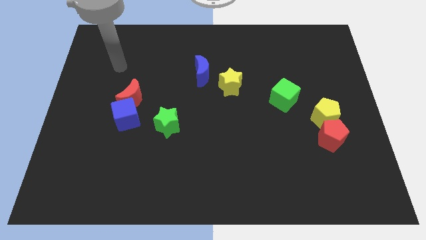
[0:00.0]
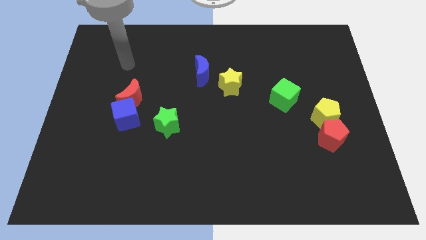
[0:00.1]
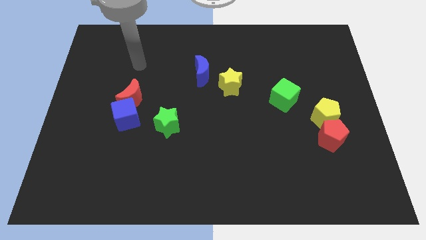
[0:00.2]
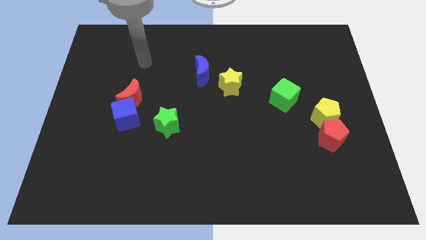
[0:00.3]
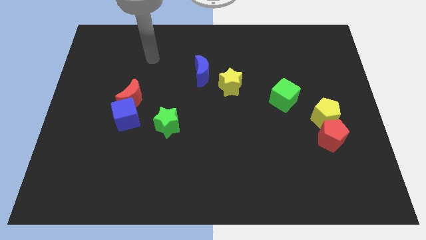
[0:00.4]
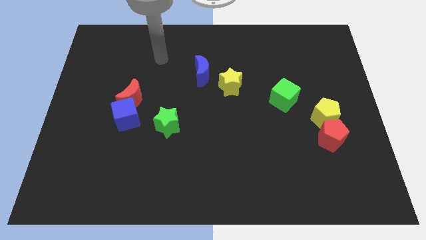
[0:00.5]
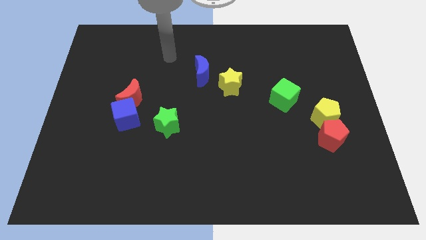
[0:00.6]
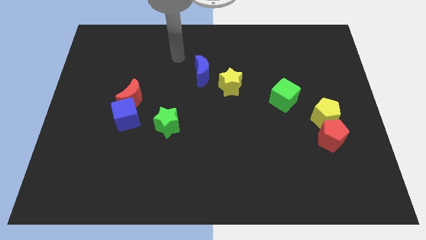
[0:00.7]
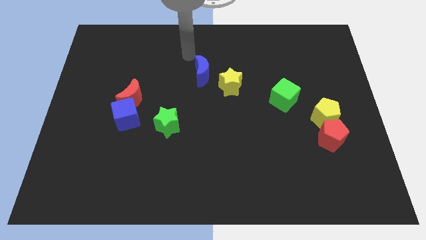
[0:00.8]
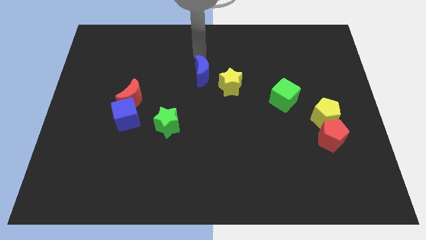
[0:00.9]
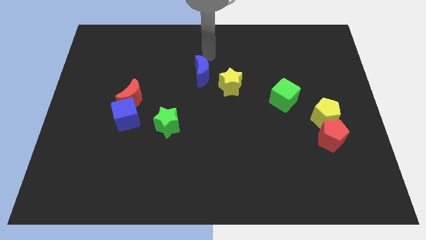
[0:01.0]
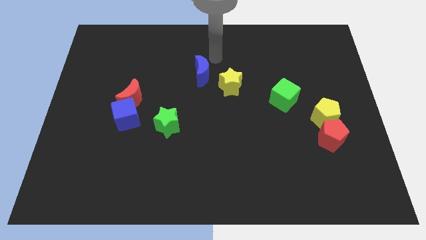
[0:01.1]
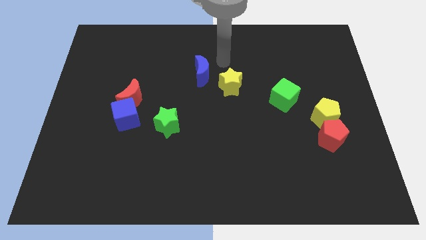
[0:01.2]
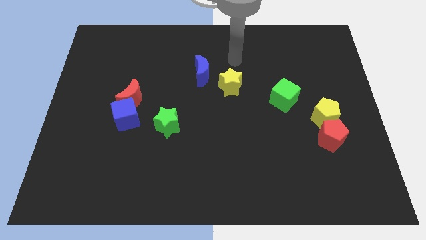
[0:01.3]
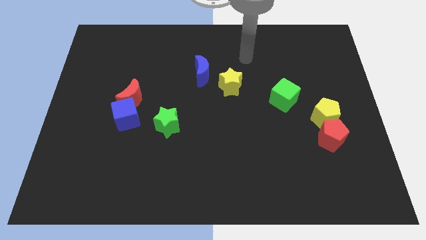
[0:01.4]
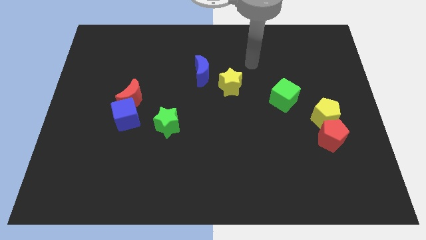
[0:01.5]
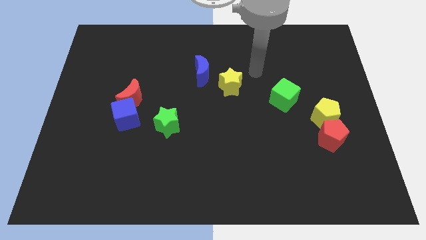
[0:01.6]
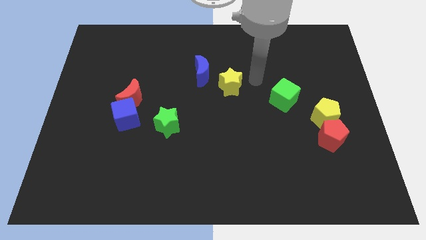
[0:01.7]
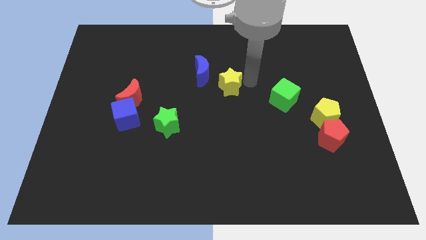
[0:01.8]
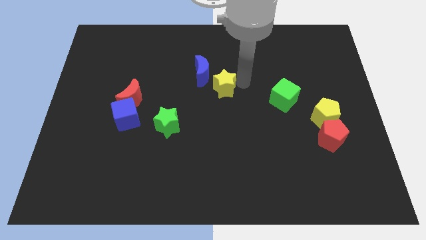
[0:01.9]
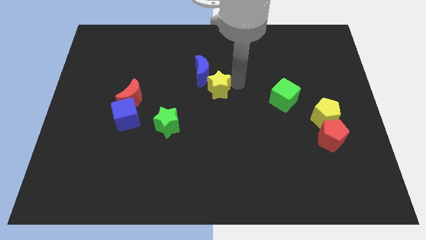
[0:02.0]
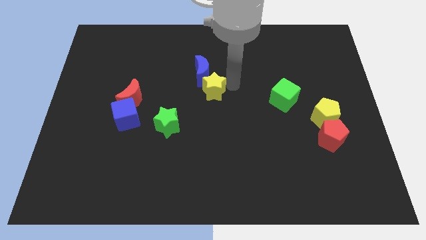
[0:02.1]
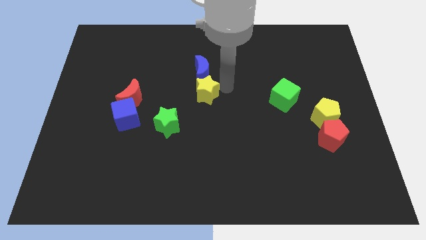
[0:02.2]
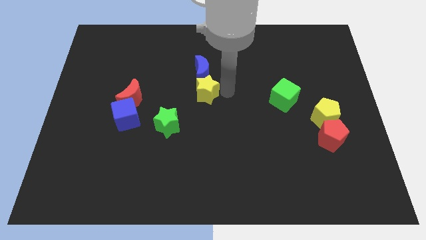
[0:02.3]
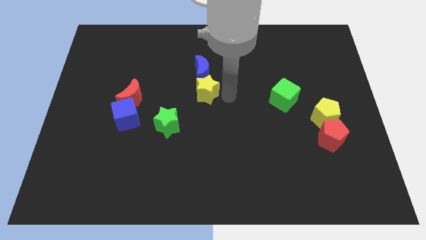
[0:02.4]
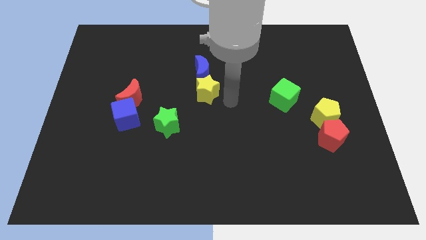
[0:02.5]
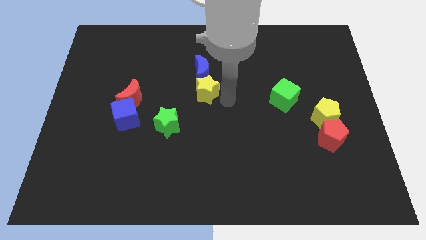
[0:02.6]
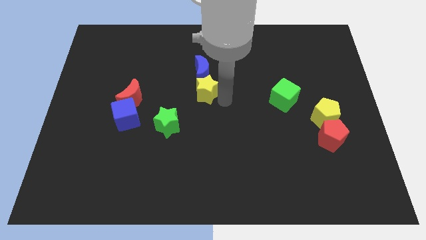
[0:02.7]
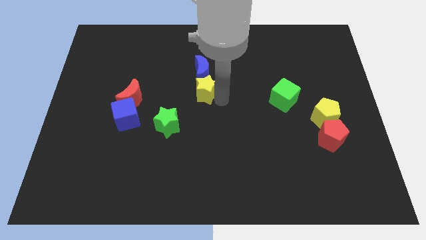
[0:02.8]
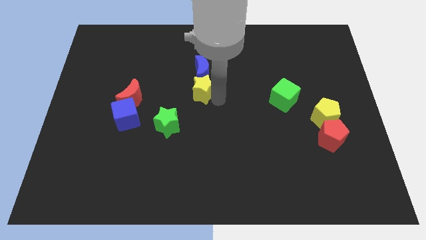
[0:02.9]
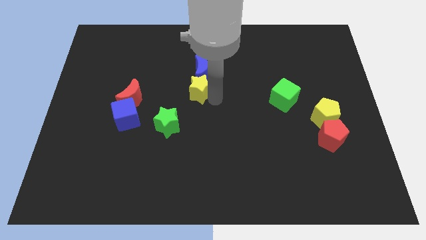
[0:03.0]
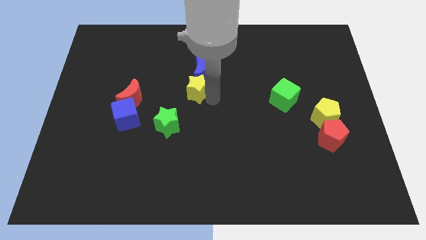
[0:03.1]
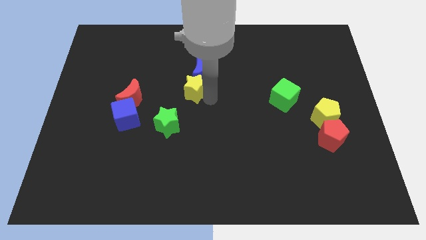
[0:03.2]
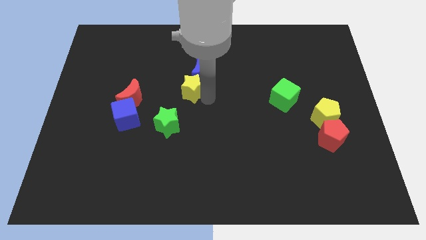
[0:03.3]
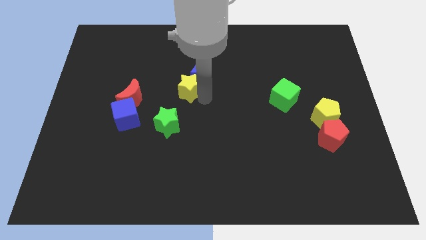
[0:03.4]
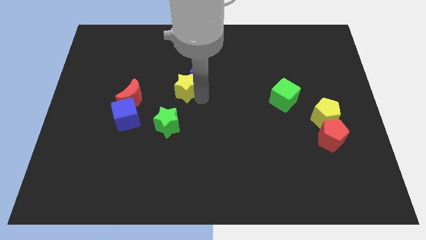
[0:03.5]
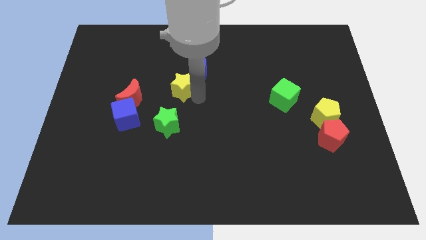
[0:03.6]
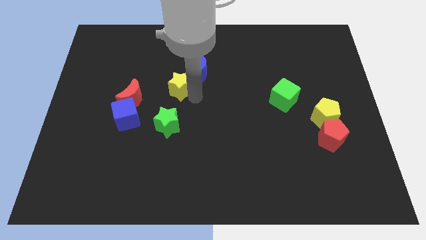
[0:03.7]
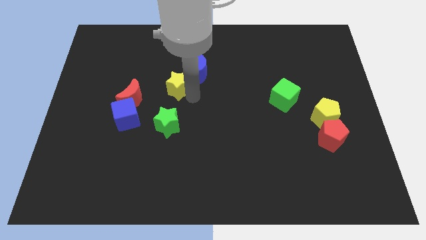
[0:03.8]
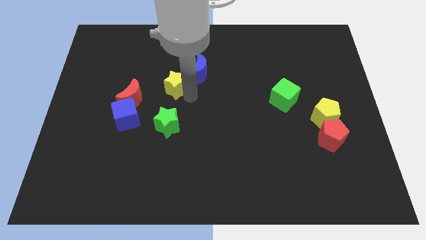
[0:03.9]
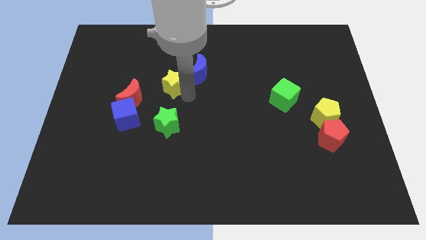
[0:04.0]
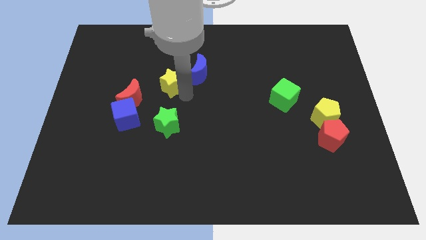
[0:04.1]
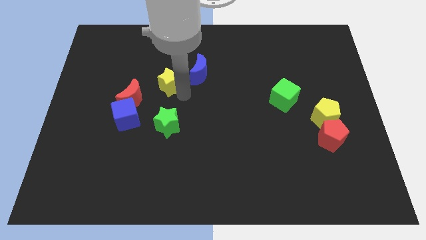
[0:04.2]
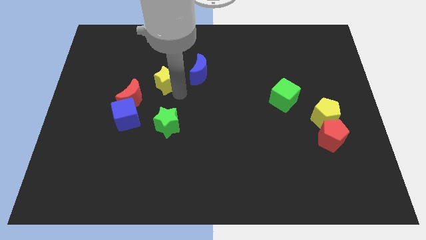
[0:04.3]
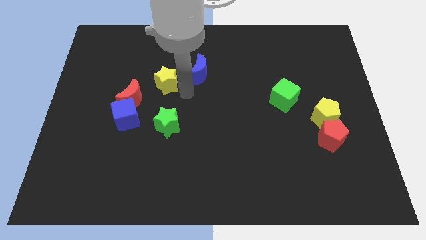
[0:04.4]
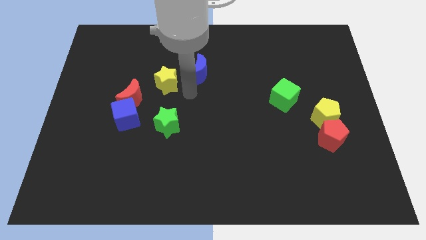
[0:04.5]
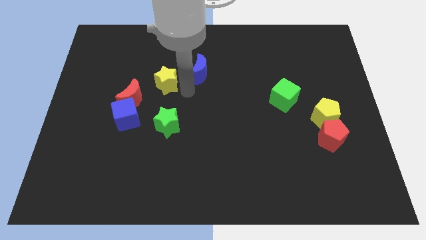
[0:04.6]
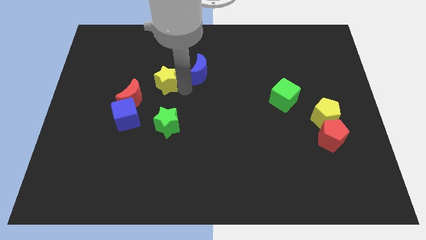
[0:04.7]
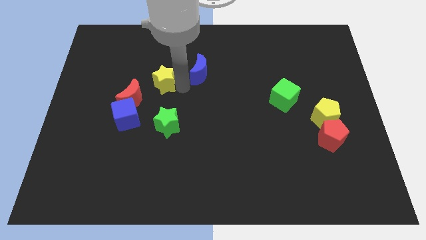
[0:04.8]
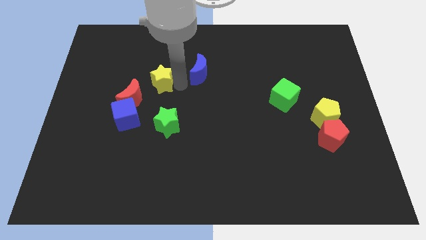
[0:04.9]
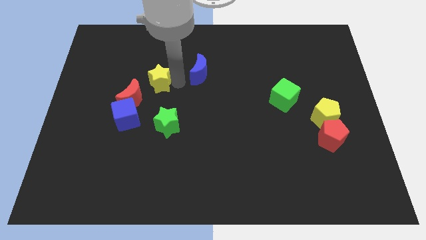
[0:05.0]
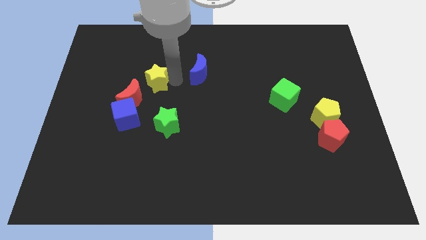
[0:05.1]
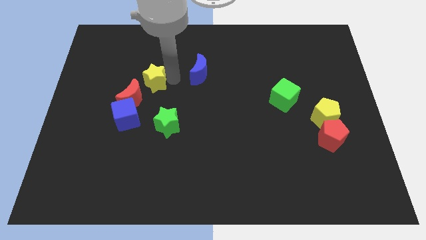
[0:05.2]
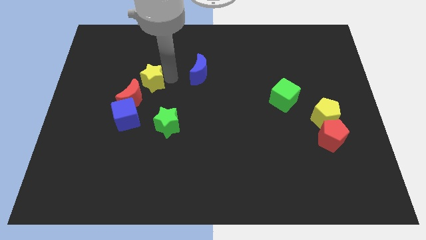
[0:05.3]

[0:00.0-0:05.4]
push the yellow star above the red moon

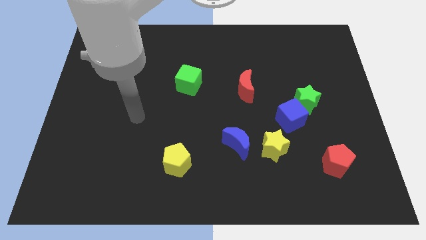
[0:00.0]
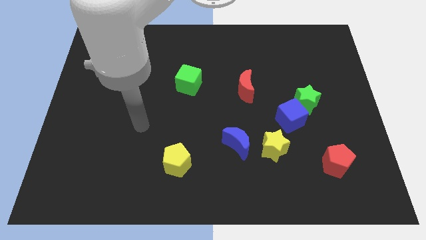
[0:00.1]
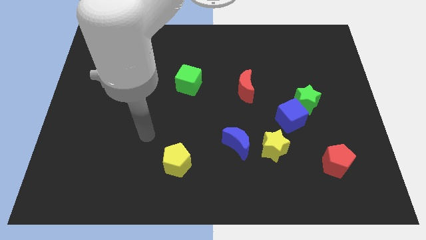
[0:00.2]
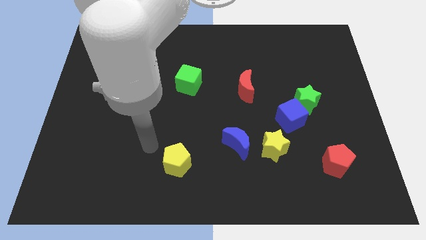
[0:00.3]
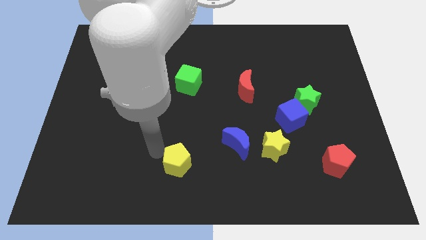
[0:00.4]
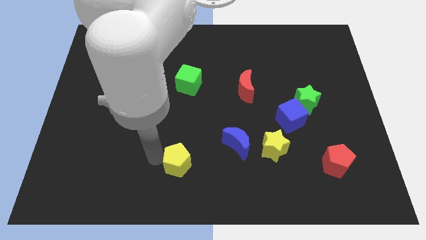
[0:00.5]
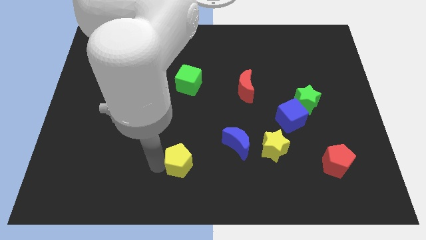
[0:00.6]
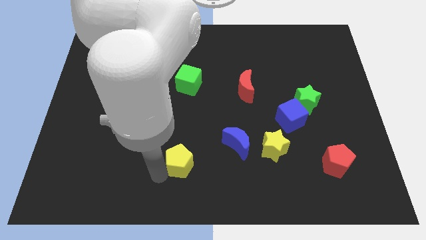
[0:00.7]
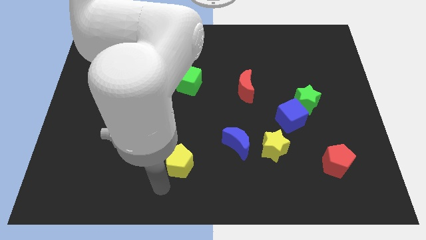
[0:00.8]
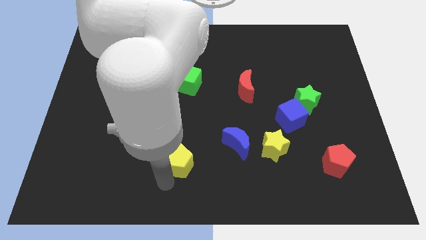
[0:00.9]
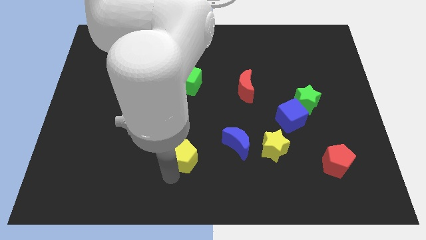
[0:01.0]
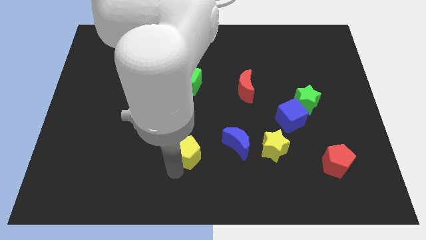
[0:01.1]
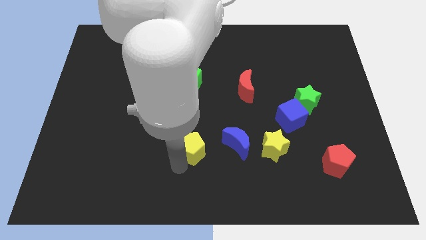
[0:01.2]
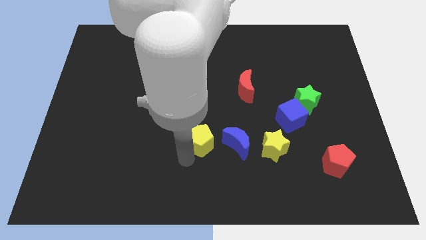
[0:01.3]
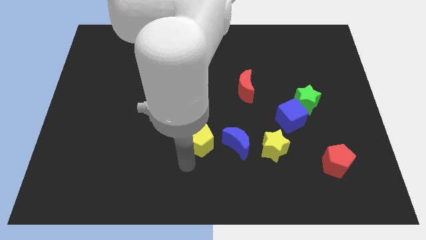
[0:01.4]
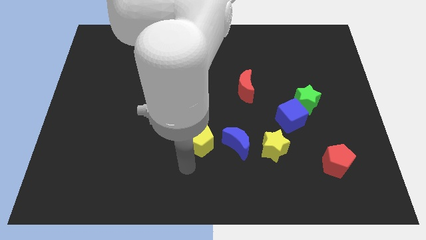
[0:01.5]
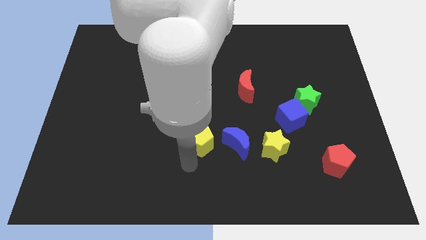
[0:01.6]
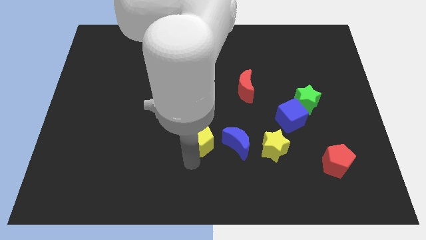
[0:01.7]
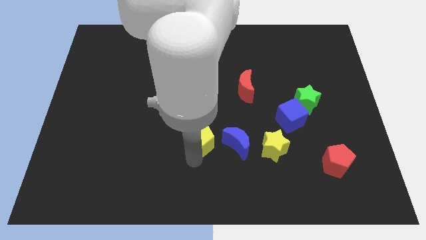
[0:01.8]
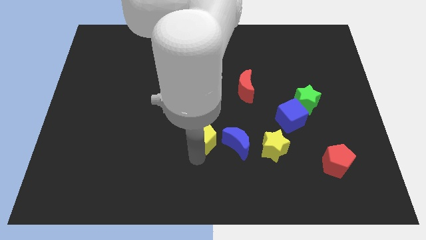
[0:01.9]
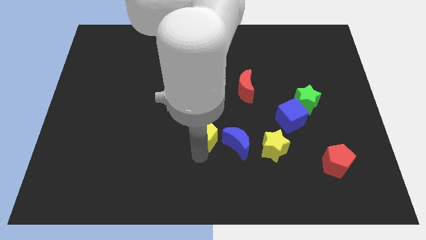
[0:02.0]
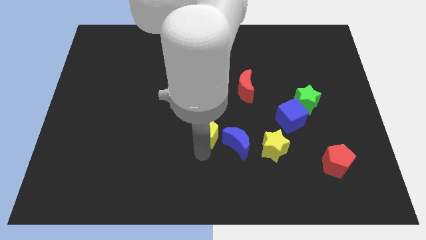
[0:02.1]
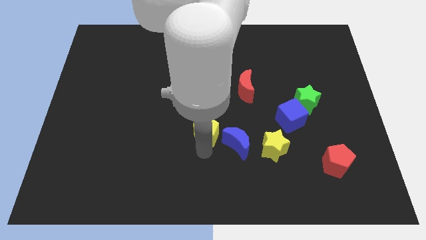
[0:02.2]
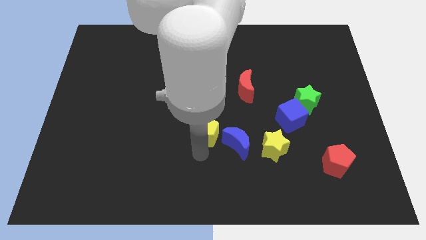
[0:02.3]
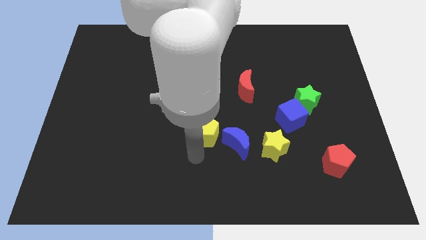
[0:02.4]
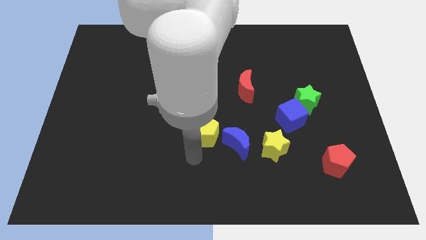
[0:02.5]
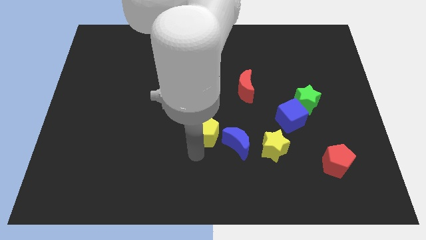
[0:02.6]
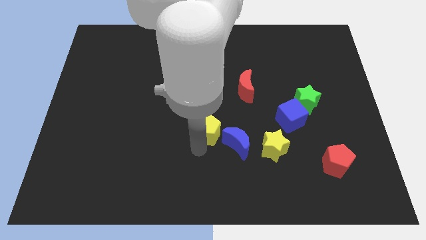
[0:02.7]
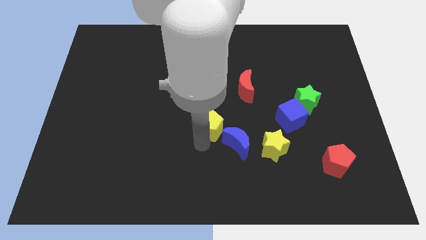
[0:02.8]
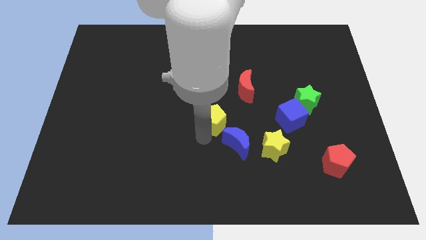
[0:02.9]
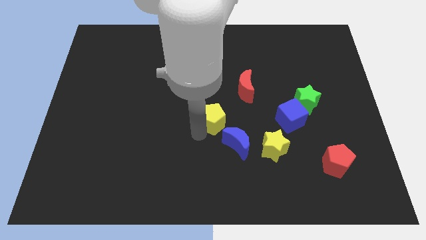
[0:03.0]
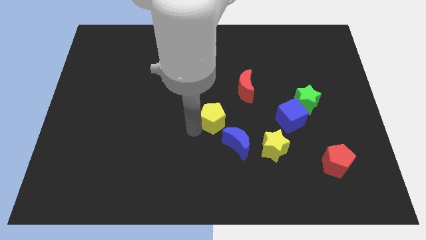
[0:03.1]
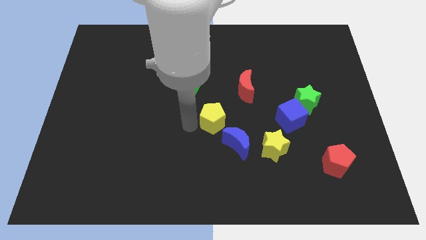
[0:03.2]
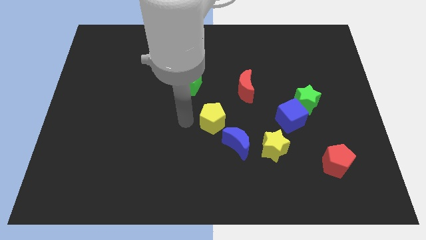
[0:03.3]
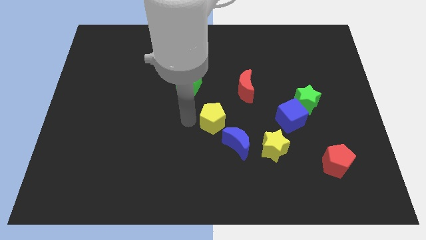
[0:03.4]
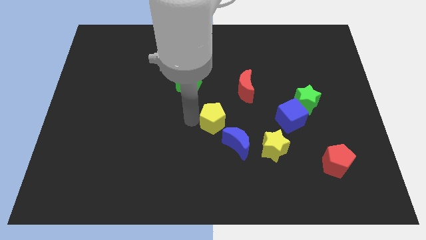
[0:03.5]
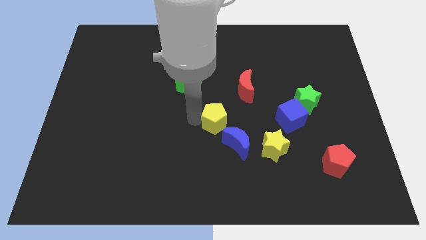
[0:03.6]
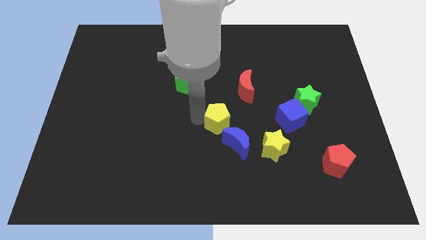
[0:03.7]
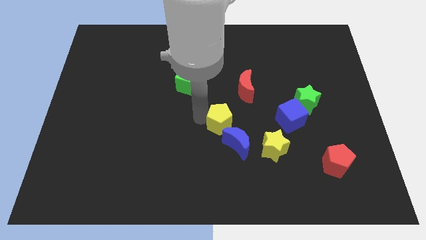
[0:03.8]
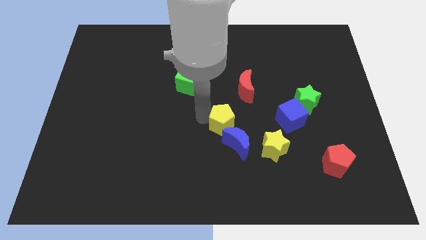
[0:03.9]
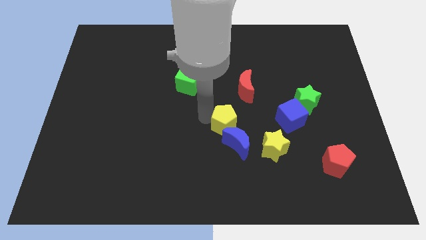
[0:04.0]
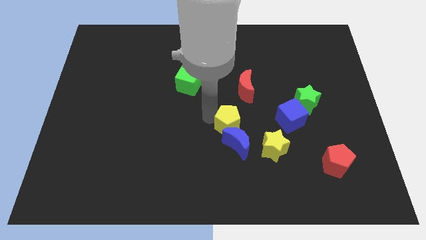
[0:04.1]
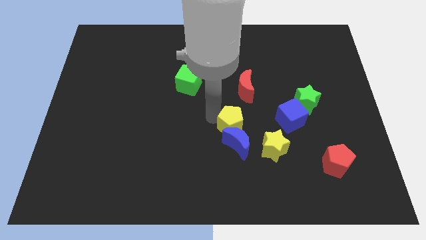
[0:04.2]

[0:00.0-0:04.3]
slide the yellow pentagon diagonally up and to the right of the blue moon
